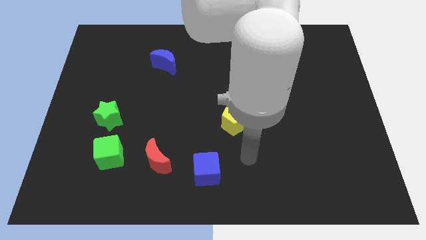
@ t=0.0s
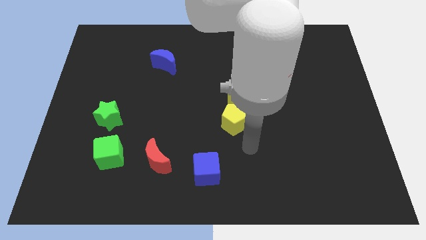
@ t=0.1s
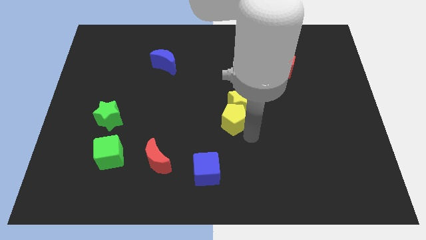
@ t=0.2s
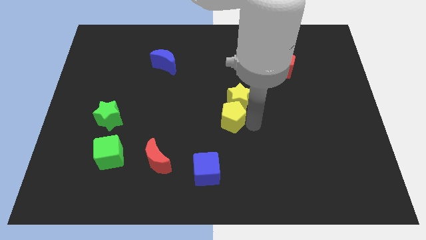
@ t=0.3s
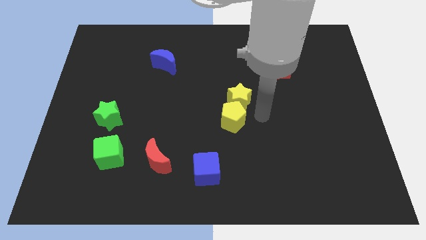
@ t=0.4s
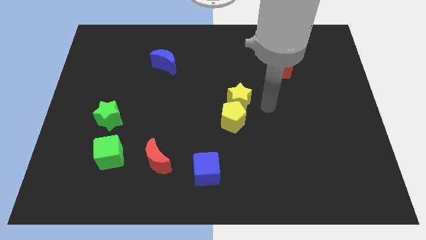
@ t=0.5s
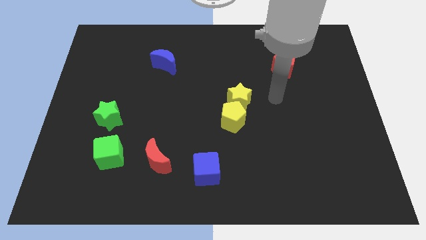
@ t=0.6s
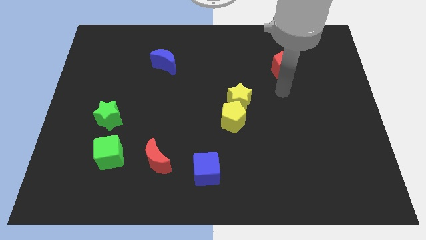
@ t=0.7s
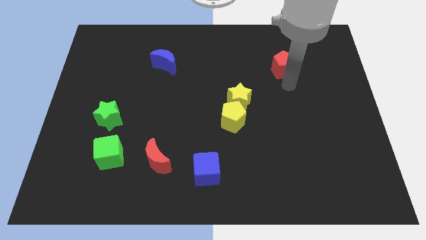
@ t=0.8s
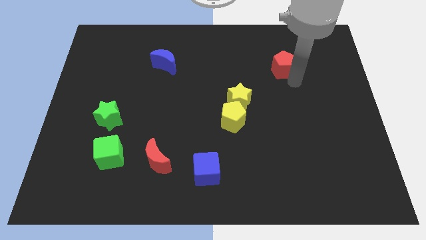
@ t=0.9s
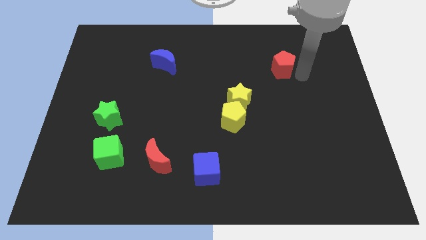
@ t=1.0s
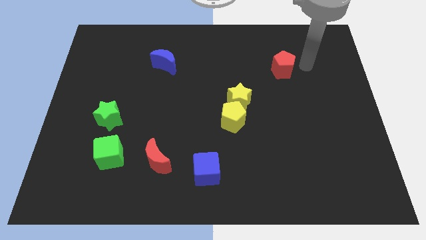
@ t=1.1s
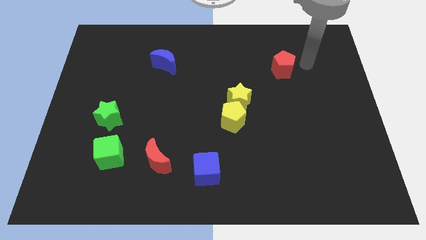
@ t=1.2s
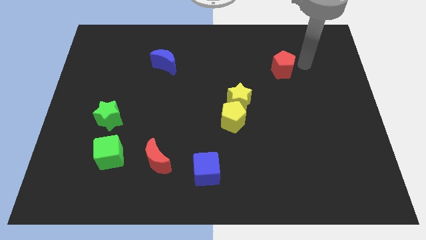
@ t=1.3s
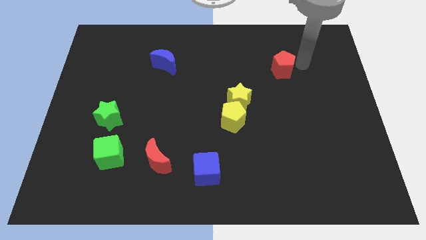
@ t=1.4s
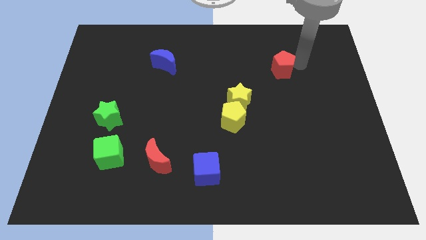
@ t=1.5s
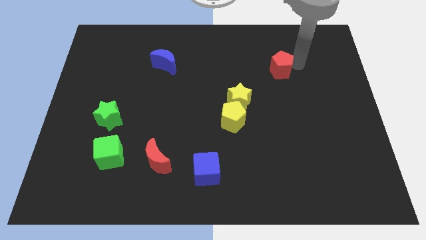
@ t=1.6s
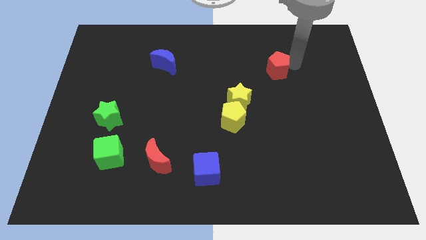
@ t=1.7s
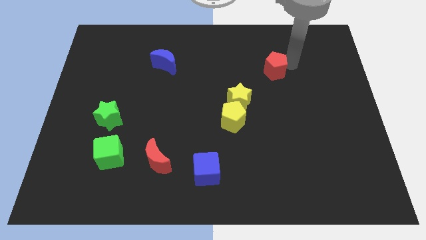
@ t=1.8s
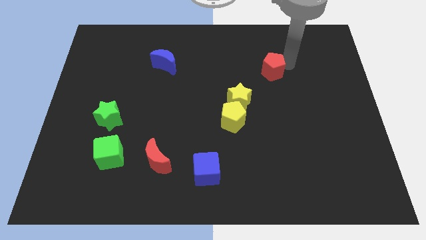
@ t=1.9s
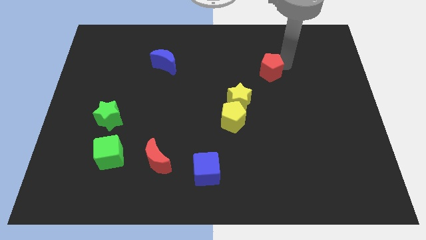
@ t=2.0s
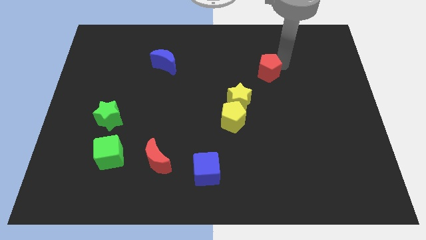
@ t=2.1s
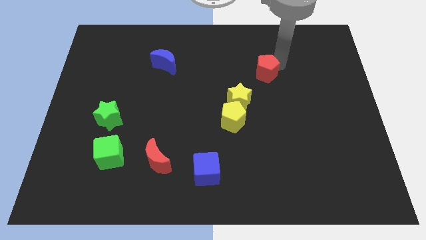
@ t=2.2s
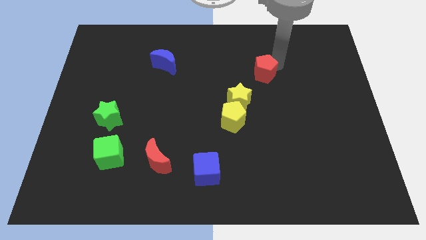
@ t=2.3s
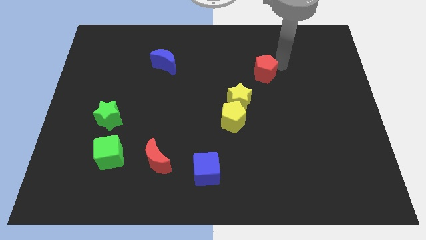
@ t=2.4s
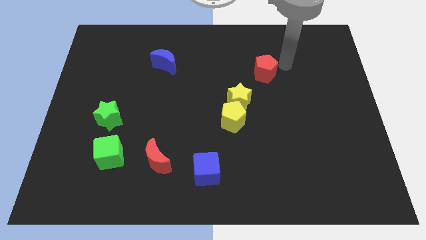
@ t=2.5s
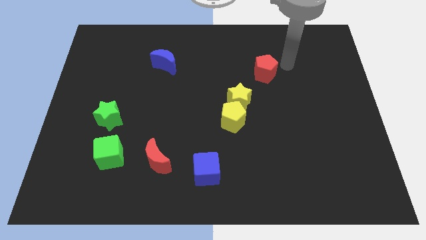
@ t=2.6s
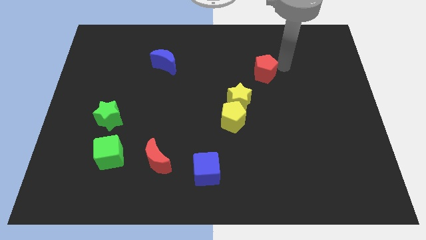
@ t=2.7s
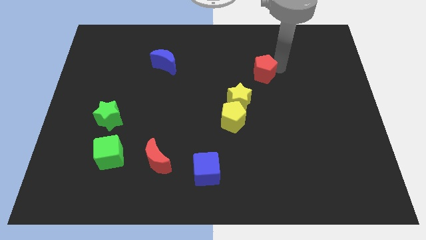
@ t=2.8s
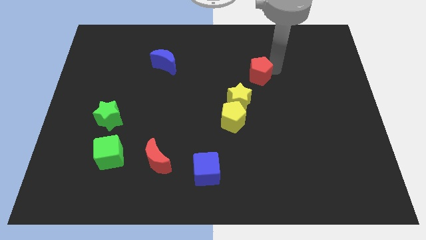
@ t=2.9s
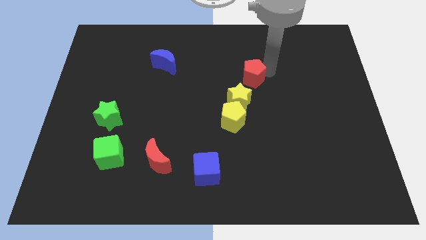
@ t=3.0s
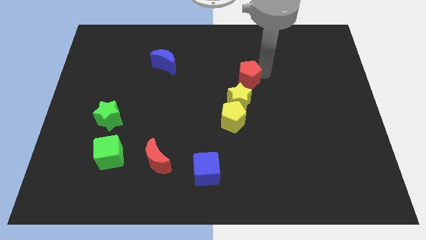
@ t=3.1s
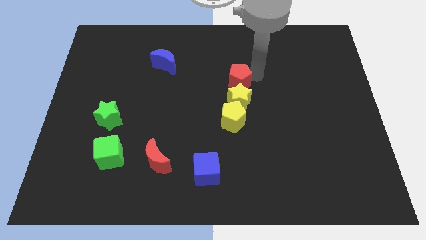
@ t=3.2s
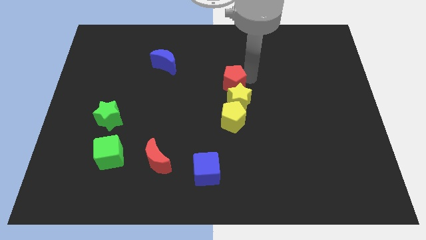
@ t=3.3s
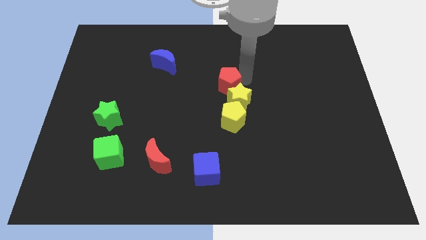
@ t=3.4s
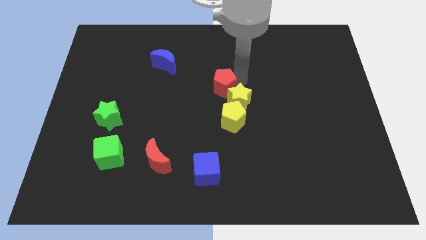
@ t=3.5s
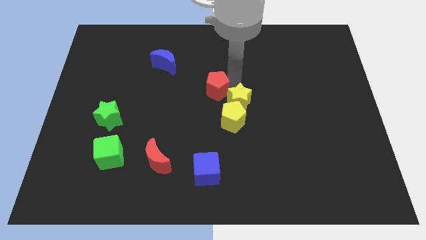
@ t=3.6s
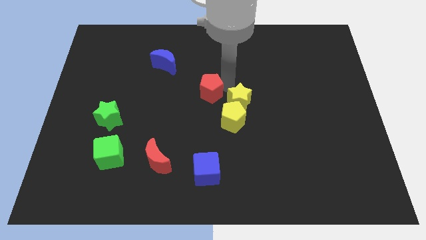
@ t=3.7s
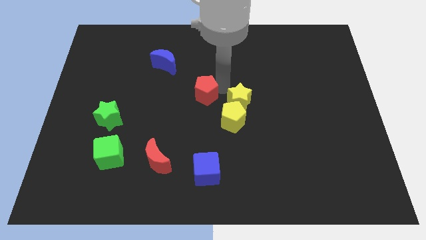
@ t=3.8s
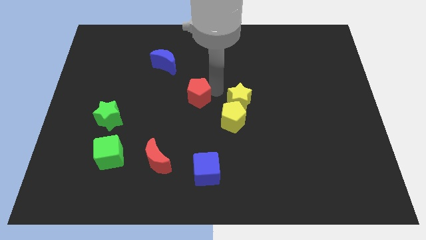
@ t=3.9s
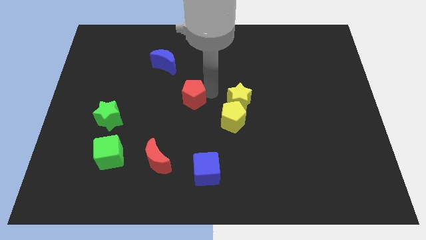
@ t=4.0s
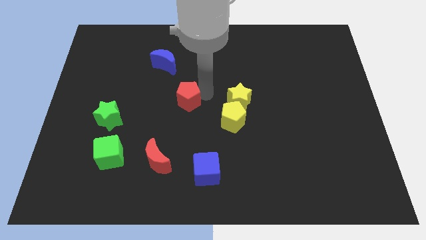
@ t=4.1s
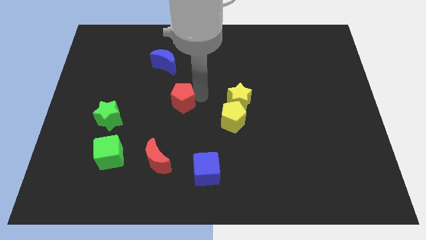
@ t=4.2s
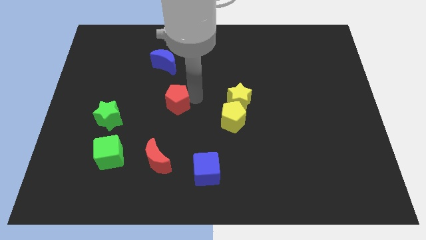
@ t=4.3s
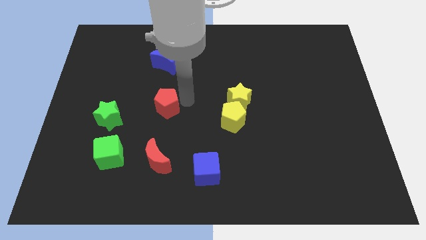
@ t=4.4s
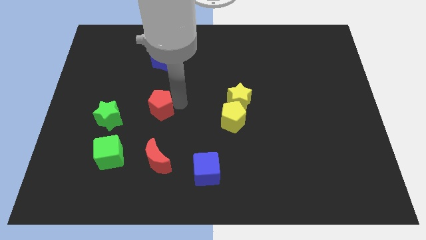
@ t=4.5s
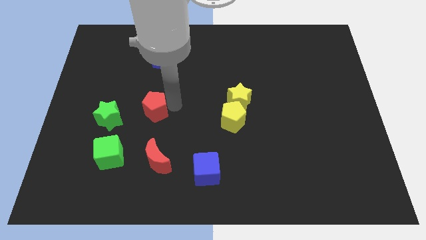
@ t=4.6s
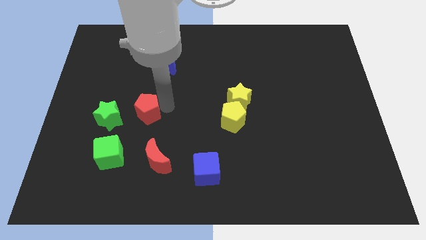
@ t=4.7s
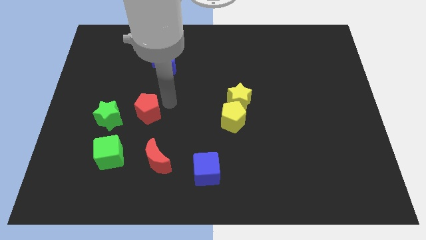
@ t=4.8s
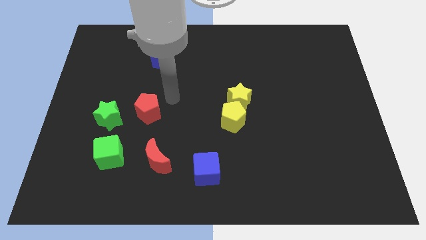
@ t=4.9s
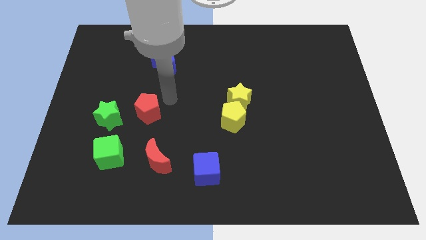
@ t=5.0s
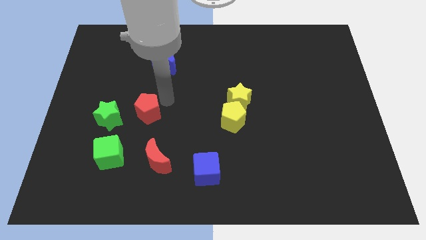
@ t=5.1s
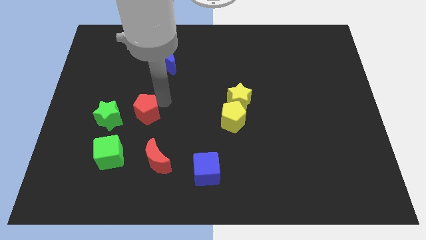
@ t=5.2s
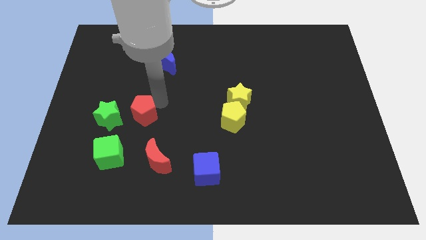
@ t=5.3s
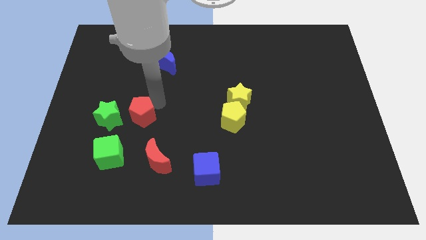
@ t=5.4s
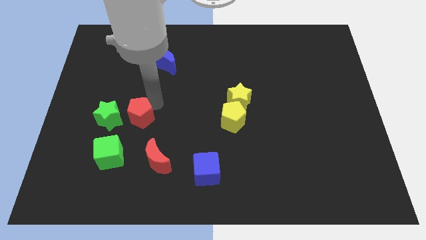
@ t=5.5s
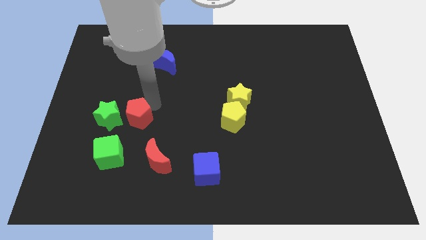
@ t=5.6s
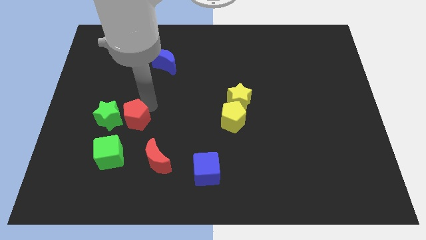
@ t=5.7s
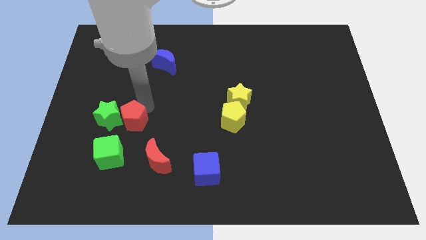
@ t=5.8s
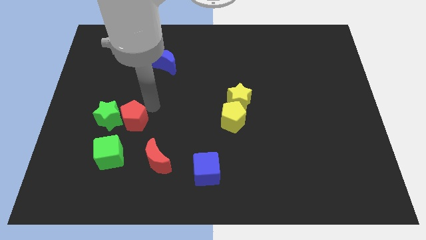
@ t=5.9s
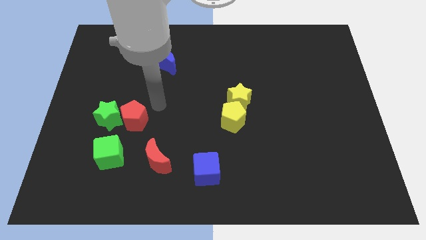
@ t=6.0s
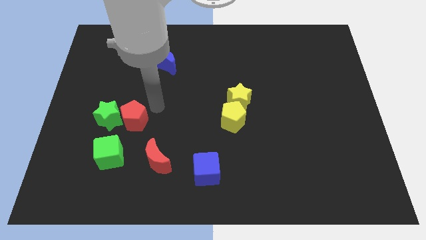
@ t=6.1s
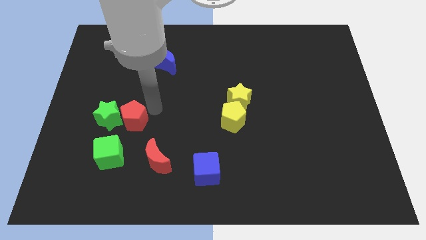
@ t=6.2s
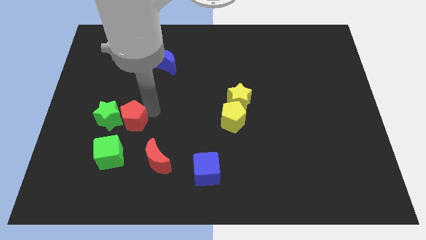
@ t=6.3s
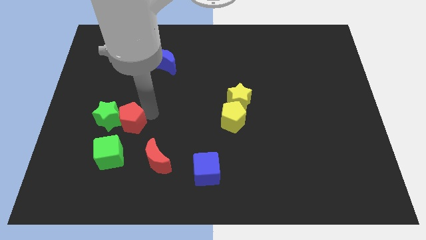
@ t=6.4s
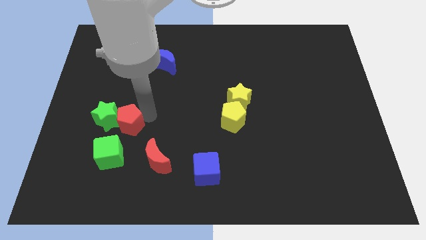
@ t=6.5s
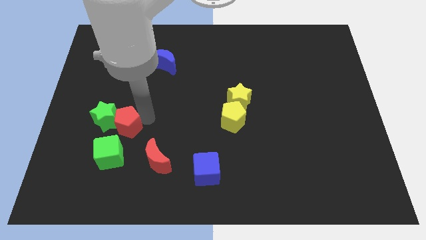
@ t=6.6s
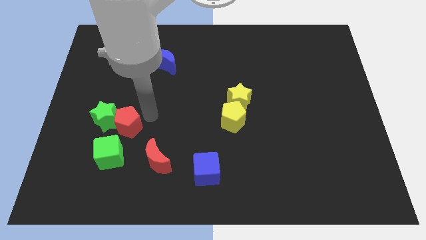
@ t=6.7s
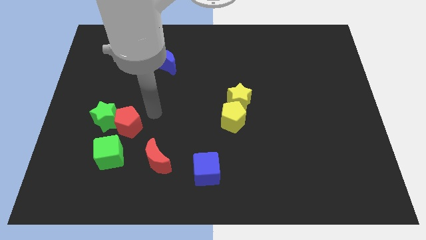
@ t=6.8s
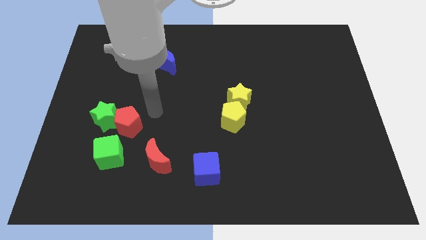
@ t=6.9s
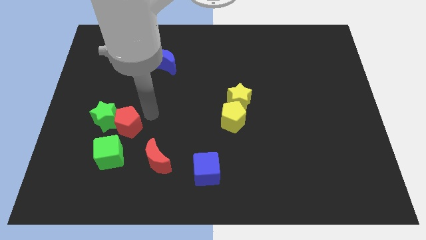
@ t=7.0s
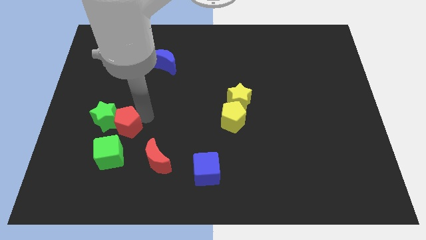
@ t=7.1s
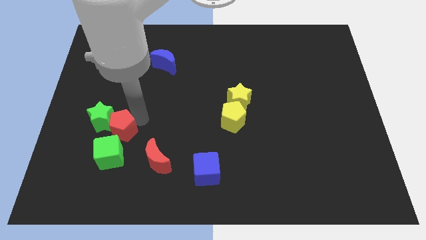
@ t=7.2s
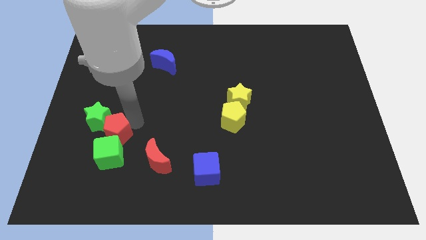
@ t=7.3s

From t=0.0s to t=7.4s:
slide the red pentagon to the top left side of the green cube
